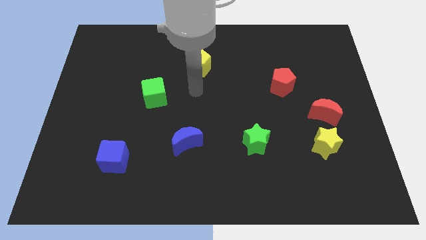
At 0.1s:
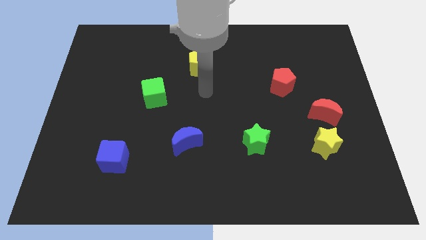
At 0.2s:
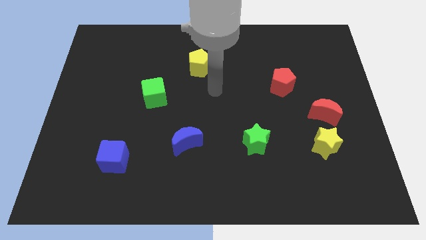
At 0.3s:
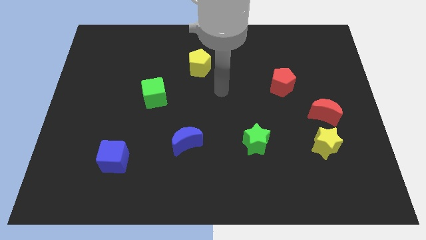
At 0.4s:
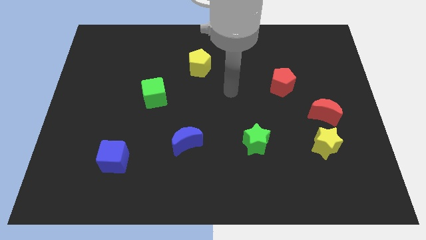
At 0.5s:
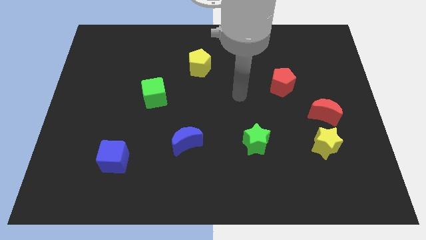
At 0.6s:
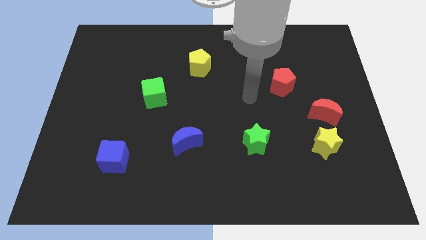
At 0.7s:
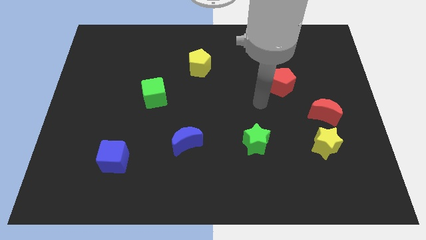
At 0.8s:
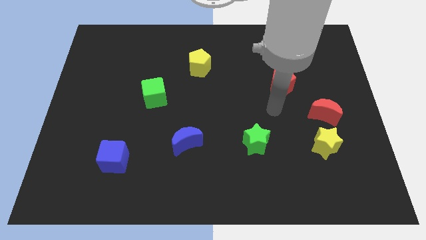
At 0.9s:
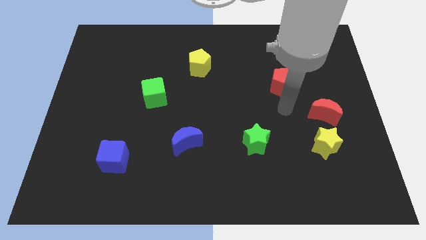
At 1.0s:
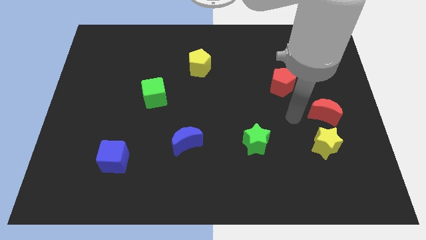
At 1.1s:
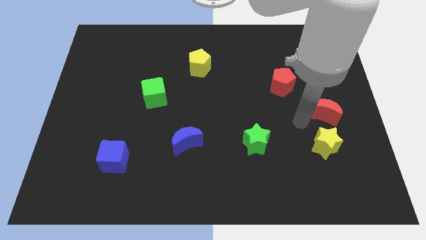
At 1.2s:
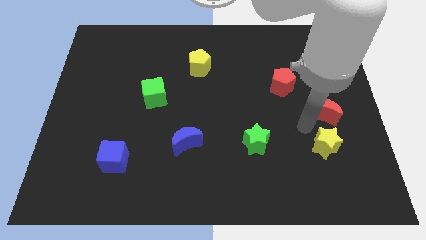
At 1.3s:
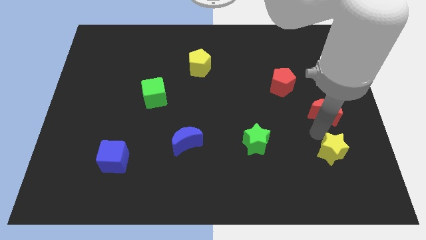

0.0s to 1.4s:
separate the red moon from the yellow star

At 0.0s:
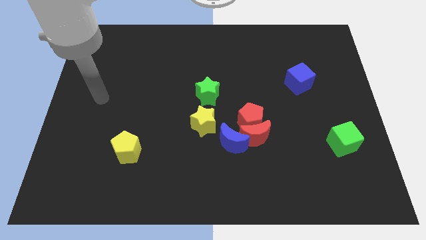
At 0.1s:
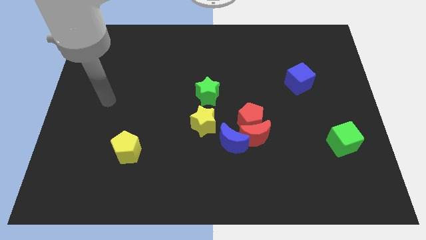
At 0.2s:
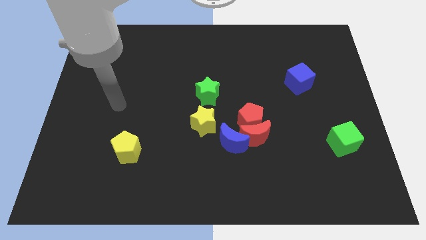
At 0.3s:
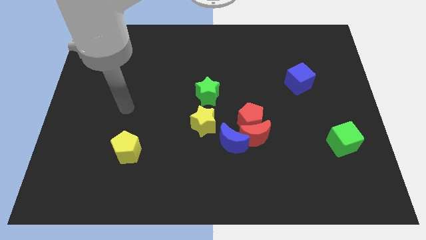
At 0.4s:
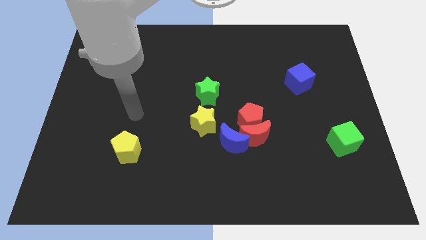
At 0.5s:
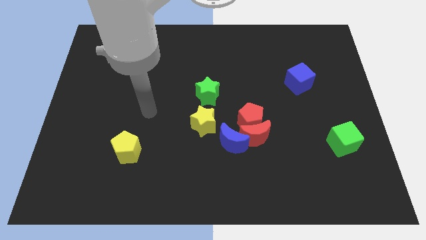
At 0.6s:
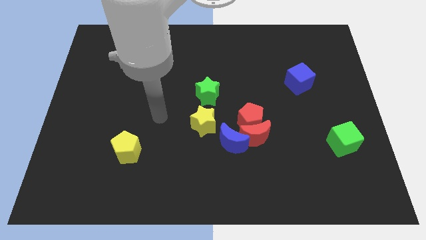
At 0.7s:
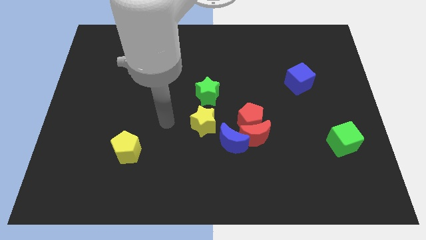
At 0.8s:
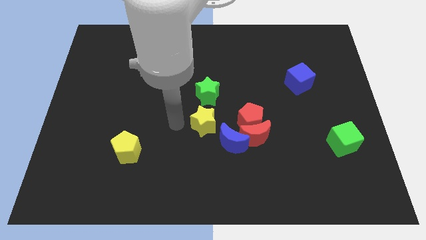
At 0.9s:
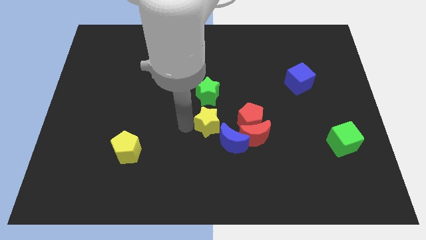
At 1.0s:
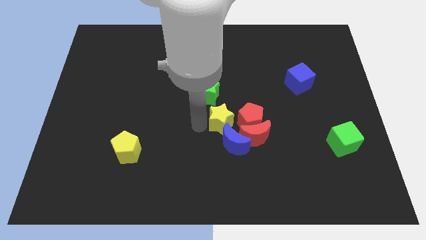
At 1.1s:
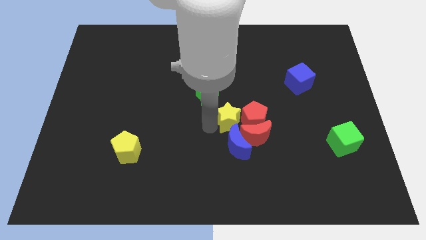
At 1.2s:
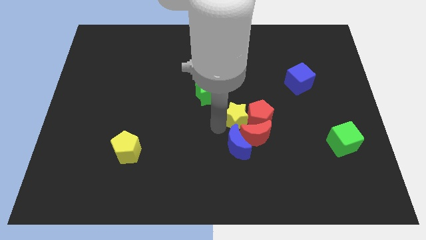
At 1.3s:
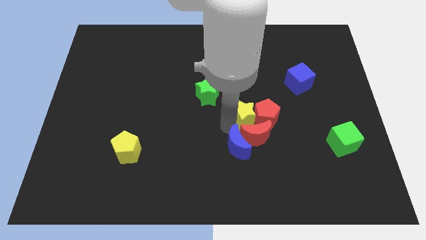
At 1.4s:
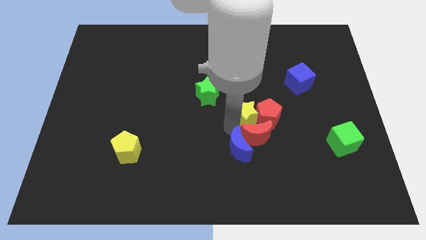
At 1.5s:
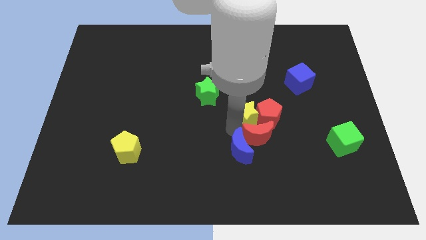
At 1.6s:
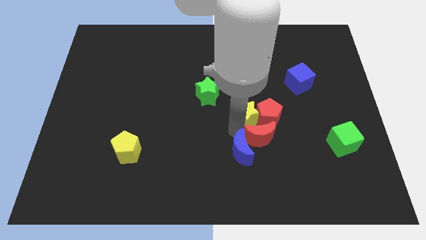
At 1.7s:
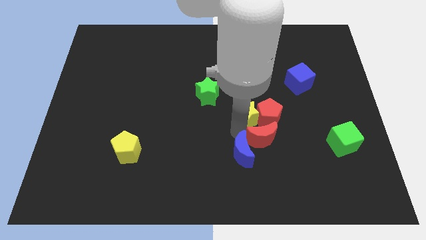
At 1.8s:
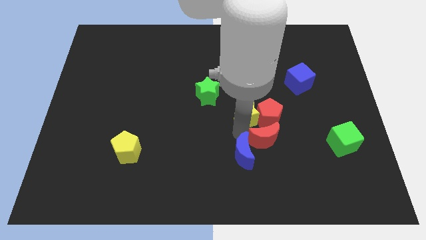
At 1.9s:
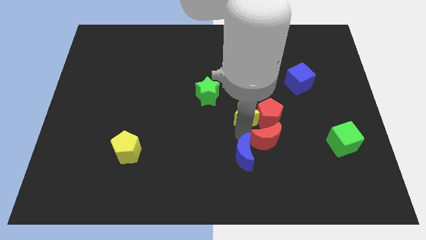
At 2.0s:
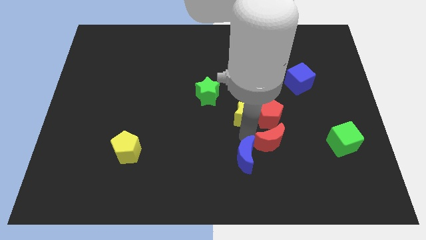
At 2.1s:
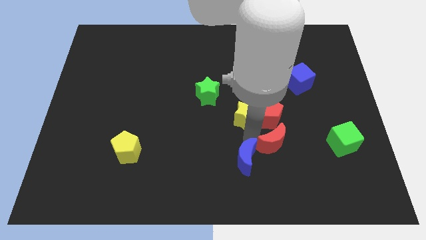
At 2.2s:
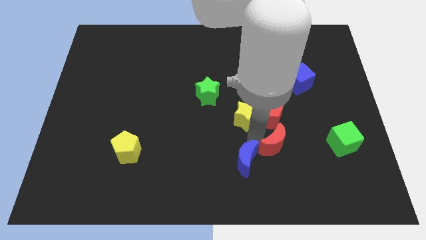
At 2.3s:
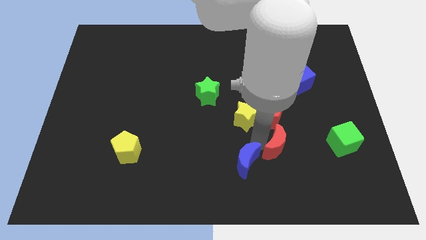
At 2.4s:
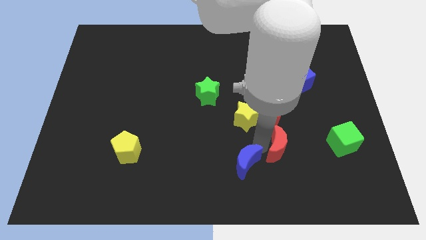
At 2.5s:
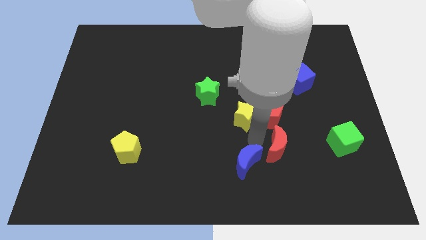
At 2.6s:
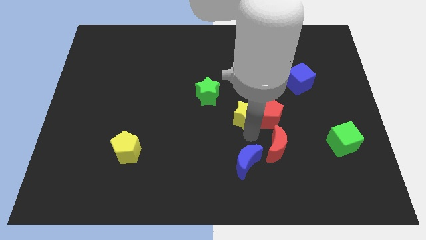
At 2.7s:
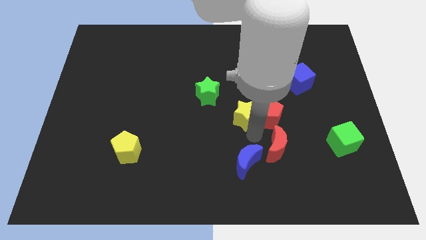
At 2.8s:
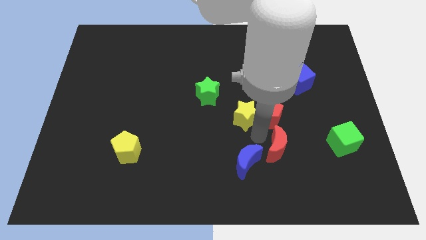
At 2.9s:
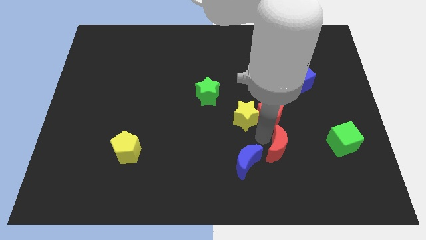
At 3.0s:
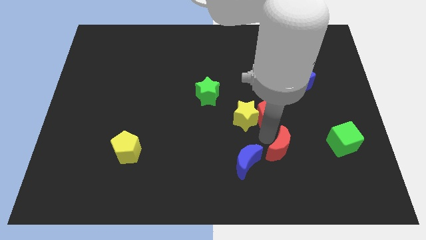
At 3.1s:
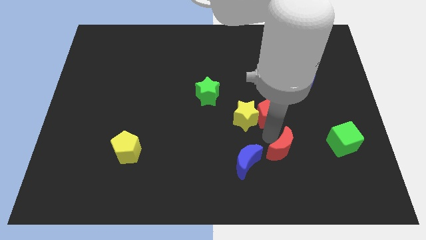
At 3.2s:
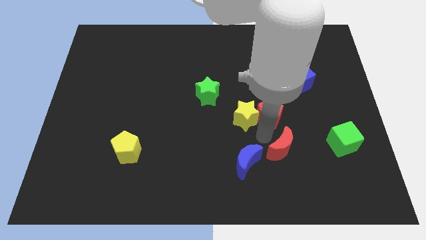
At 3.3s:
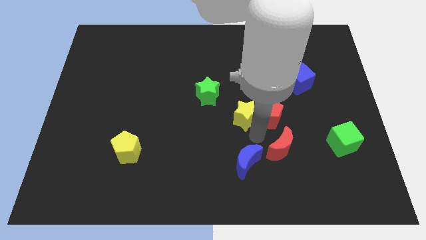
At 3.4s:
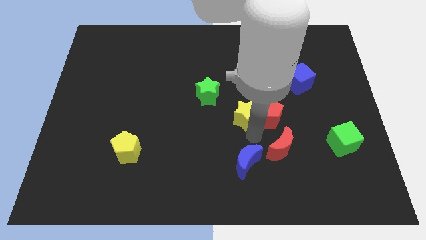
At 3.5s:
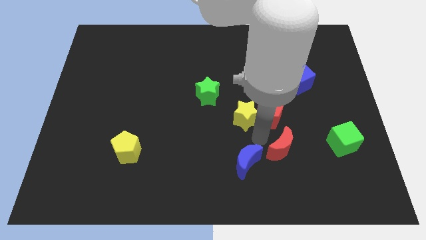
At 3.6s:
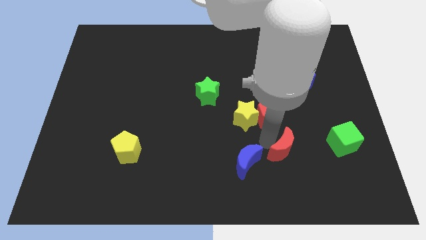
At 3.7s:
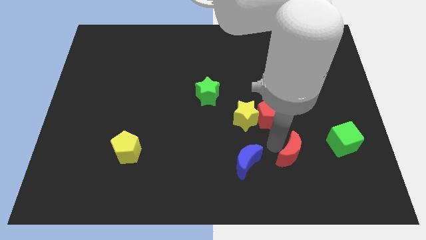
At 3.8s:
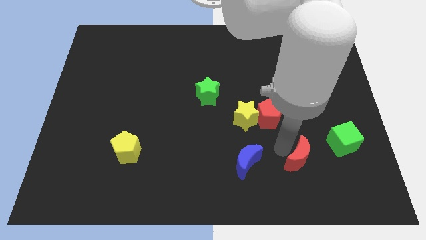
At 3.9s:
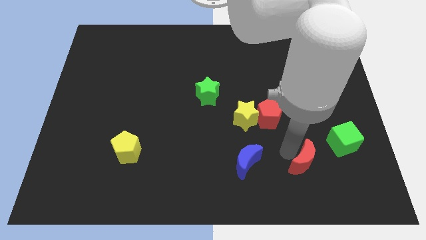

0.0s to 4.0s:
move the red moon away from the red pentagon and blue moon

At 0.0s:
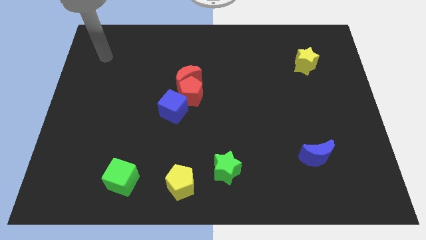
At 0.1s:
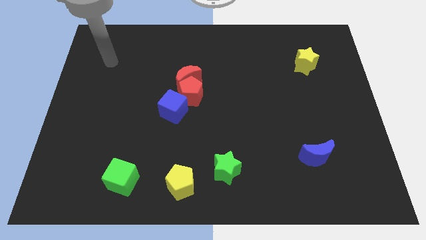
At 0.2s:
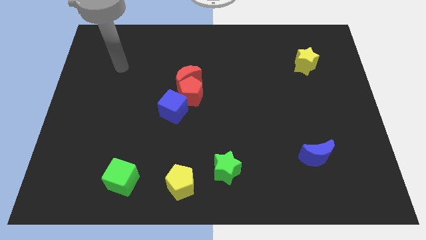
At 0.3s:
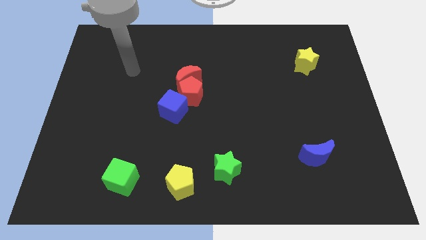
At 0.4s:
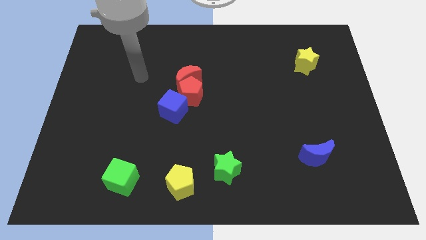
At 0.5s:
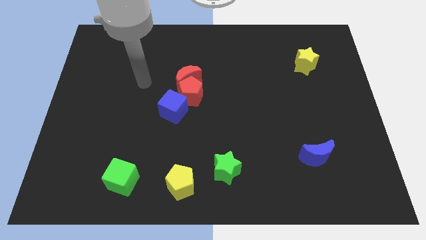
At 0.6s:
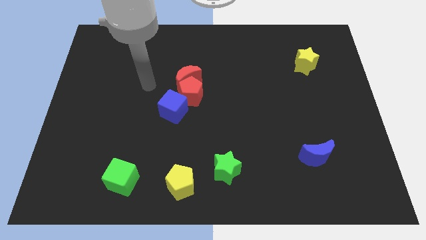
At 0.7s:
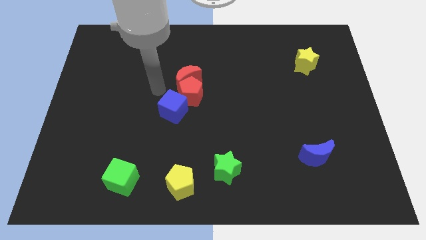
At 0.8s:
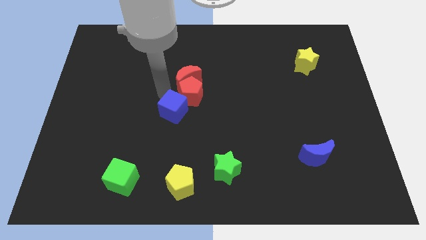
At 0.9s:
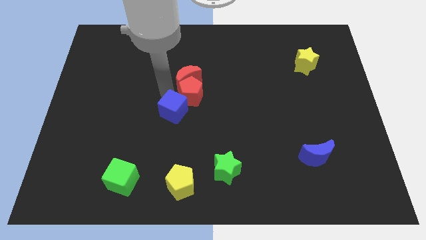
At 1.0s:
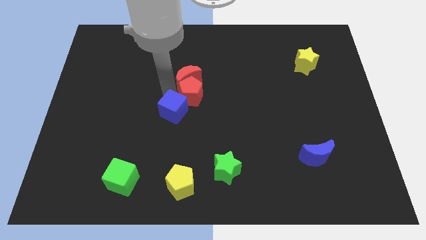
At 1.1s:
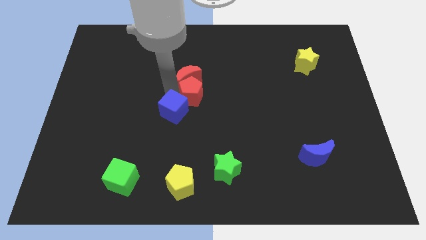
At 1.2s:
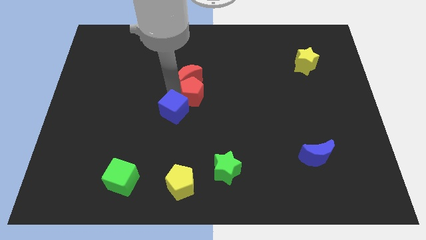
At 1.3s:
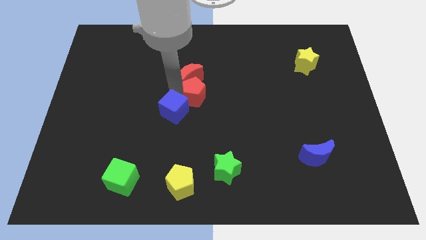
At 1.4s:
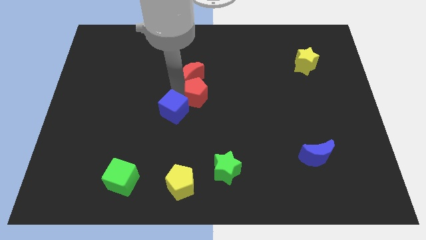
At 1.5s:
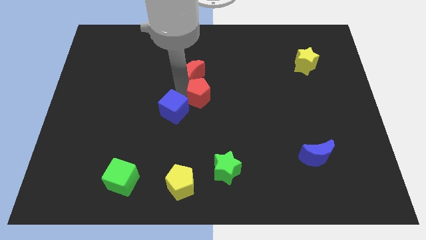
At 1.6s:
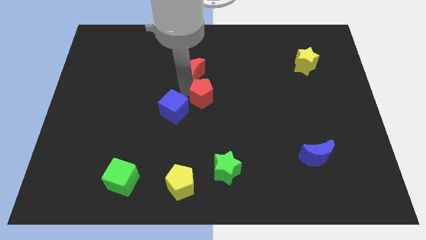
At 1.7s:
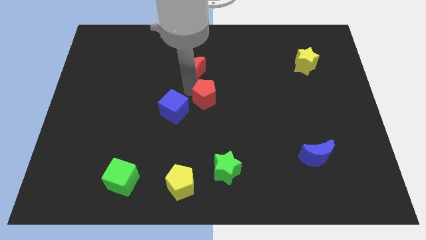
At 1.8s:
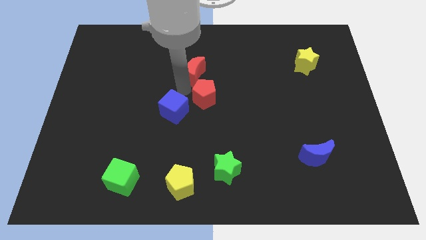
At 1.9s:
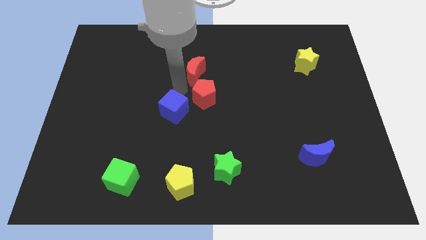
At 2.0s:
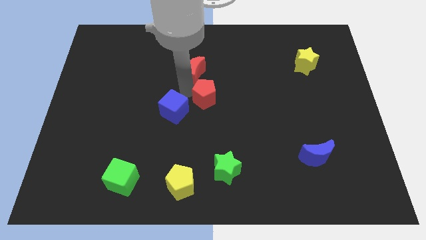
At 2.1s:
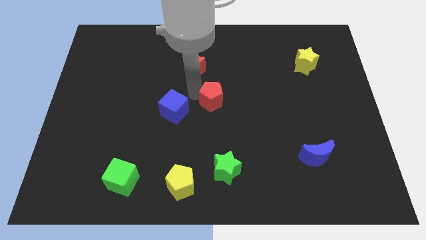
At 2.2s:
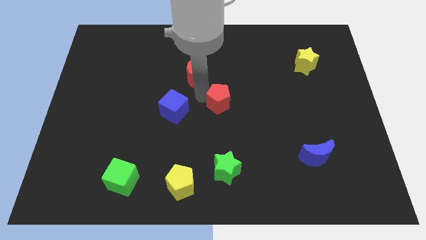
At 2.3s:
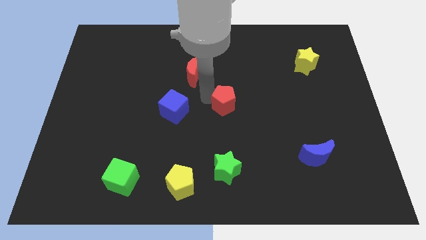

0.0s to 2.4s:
move the red pentagon away from the red moon and blue cube

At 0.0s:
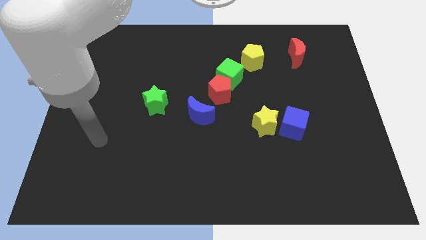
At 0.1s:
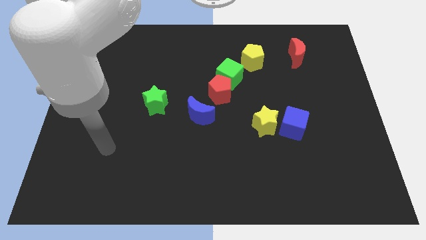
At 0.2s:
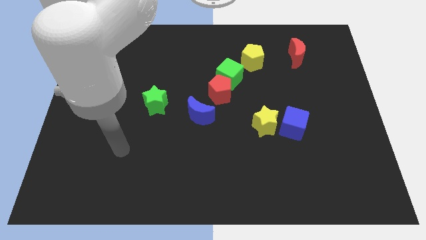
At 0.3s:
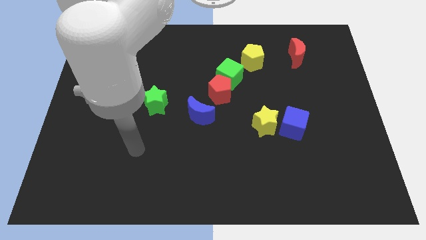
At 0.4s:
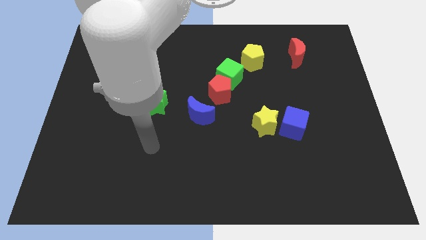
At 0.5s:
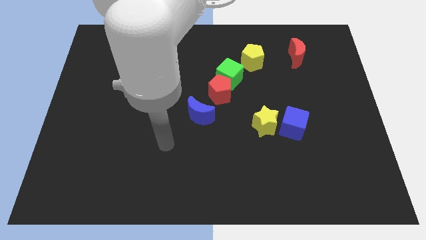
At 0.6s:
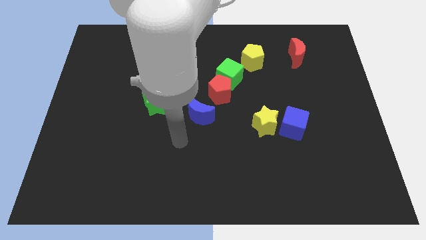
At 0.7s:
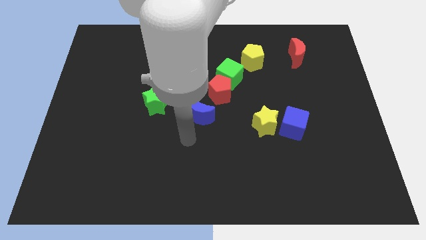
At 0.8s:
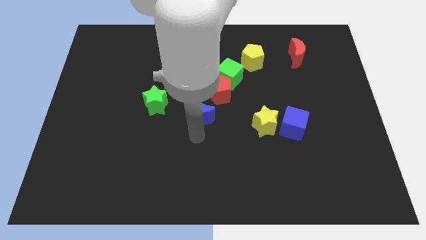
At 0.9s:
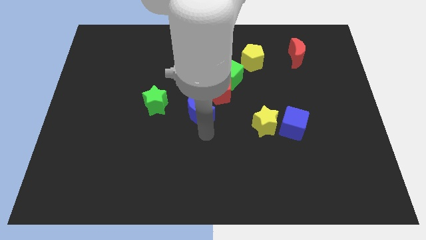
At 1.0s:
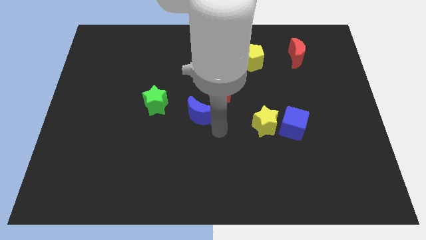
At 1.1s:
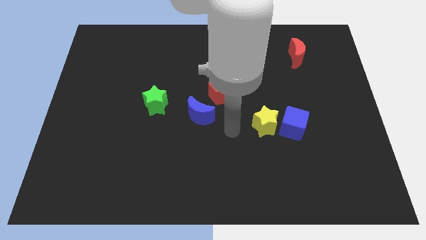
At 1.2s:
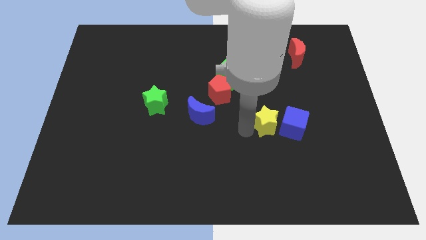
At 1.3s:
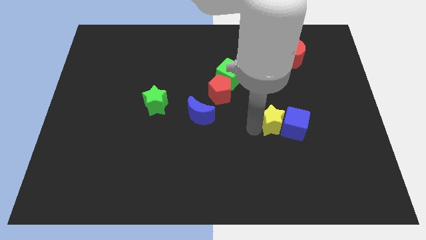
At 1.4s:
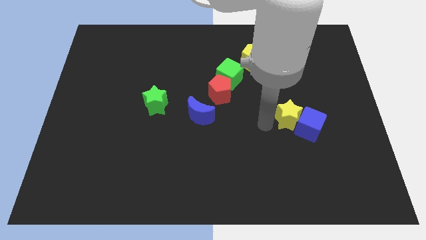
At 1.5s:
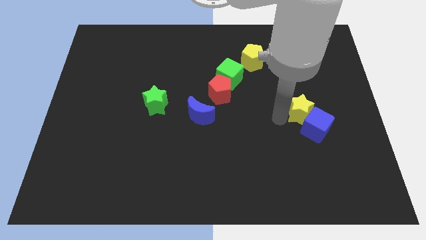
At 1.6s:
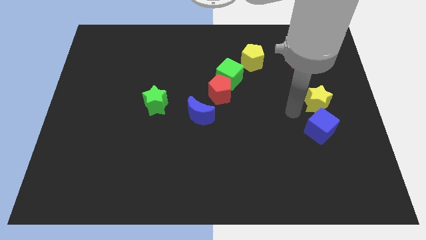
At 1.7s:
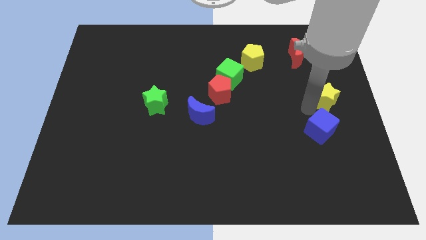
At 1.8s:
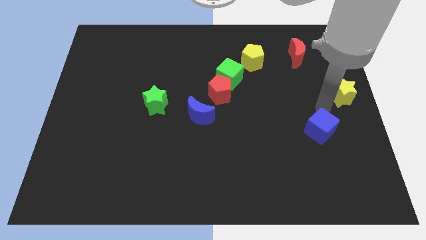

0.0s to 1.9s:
pull the blue cube apart from the yellow star
